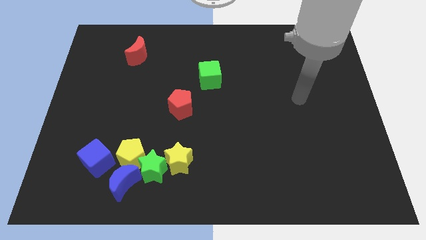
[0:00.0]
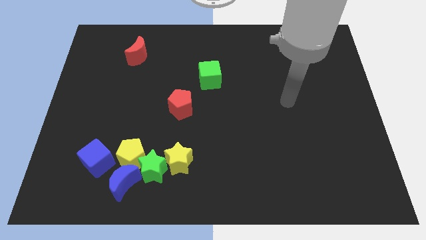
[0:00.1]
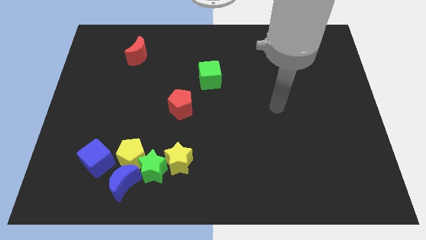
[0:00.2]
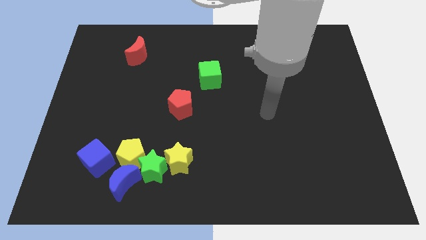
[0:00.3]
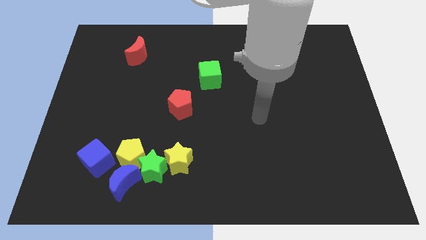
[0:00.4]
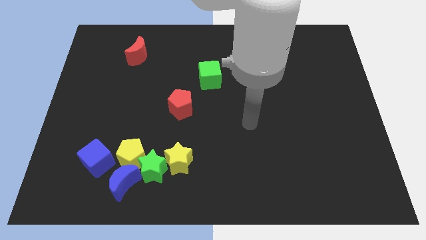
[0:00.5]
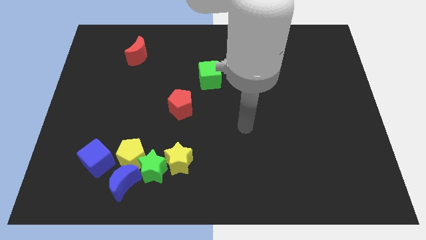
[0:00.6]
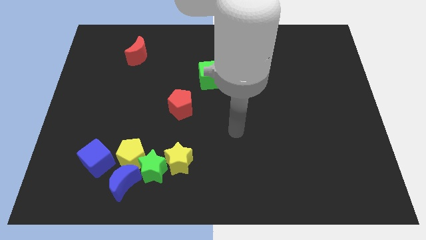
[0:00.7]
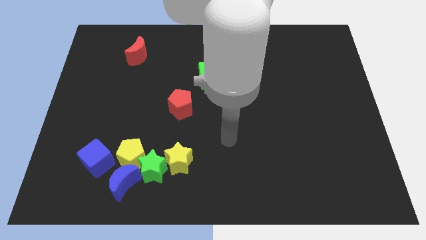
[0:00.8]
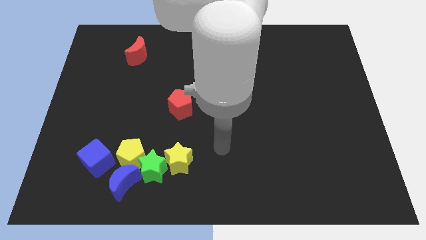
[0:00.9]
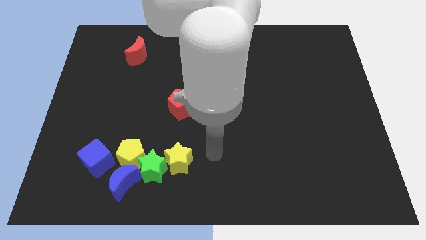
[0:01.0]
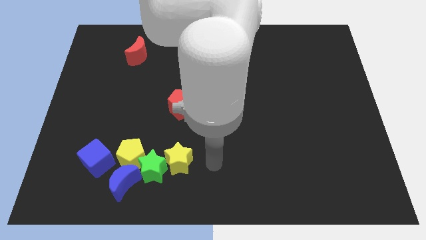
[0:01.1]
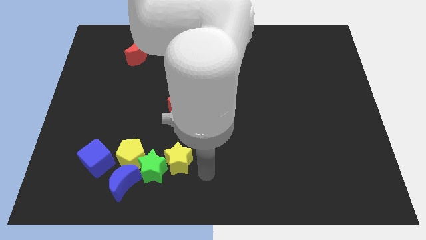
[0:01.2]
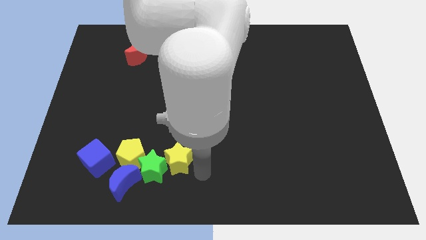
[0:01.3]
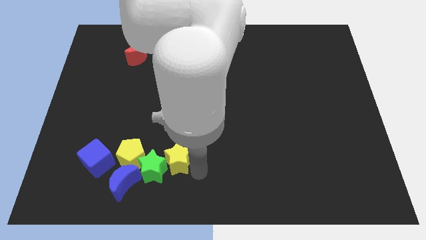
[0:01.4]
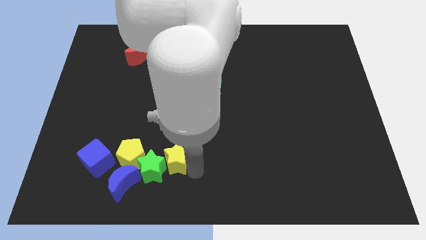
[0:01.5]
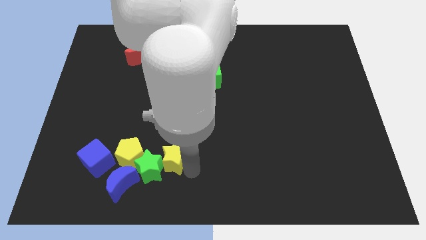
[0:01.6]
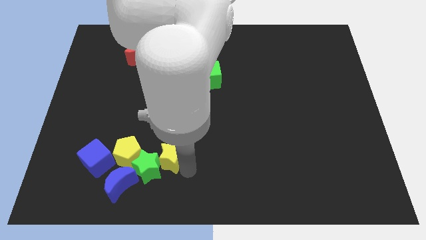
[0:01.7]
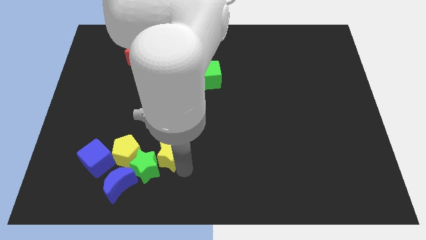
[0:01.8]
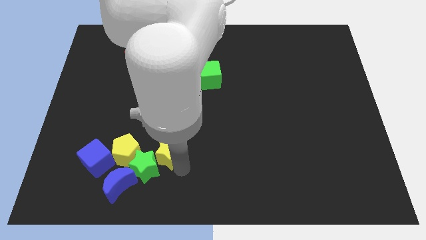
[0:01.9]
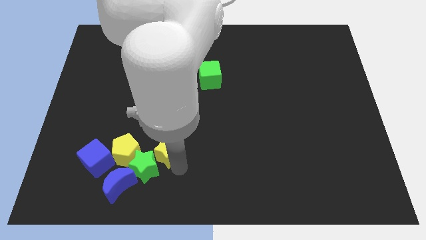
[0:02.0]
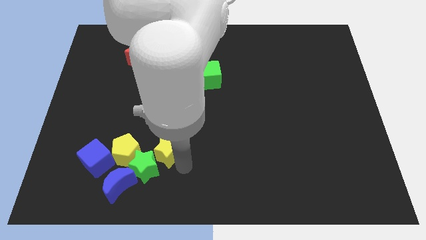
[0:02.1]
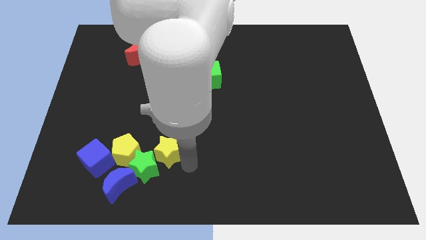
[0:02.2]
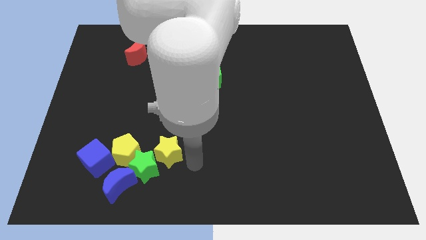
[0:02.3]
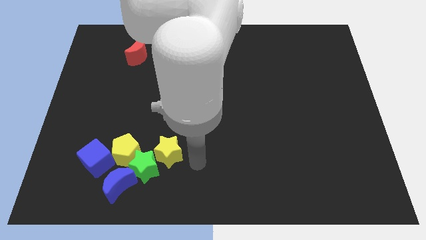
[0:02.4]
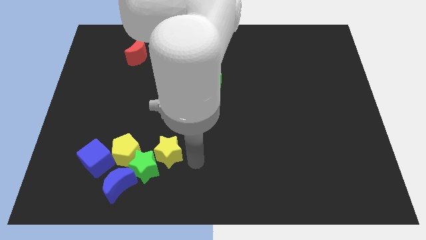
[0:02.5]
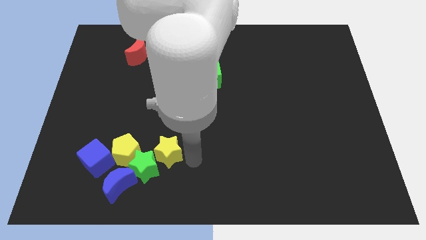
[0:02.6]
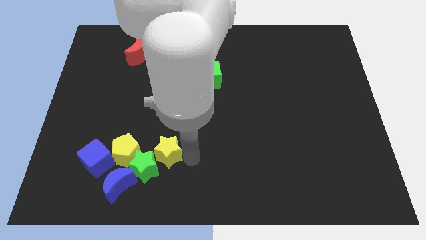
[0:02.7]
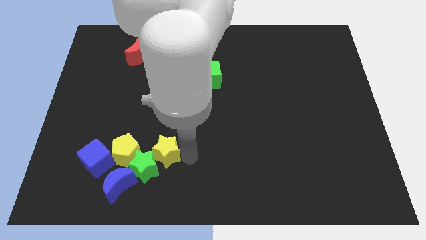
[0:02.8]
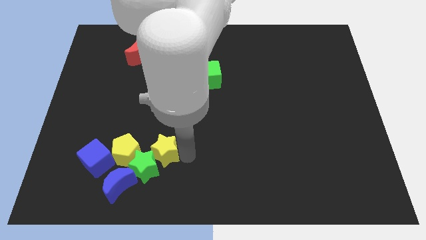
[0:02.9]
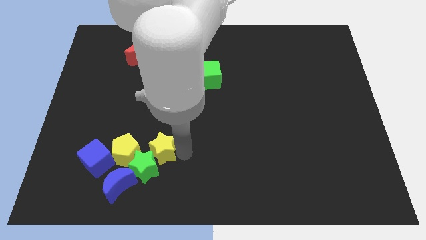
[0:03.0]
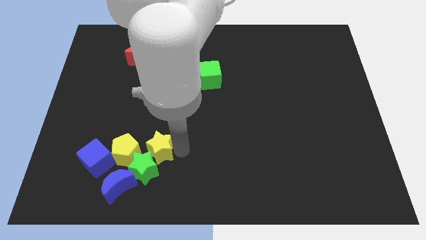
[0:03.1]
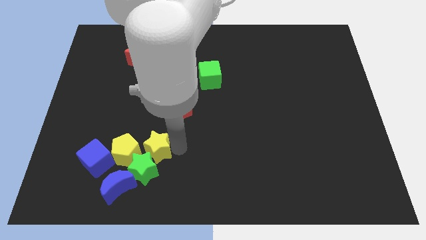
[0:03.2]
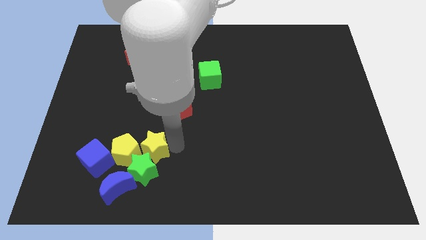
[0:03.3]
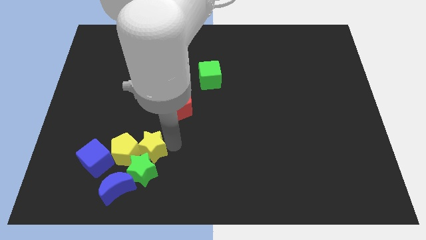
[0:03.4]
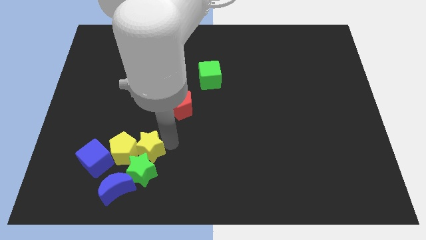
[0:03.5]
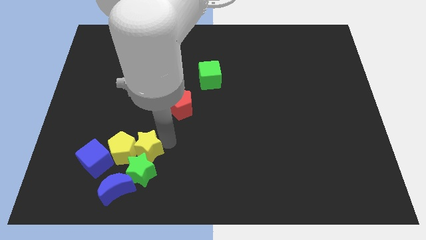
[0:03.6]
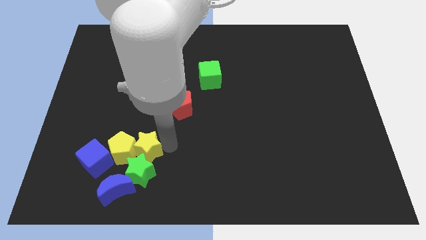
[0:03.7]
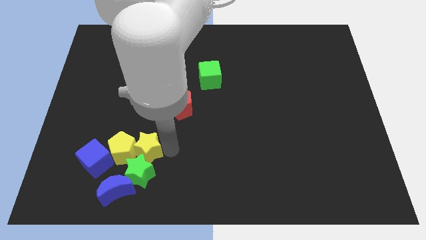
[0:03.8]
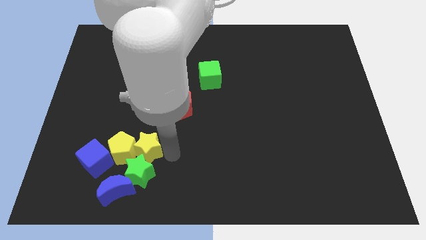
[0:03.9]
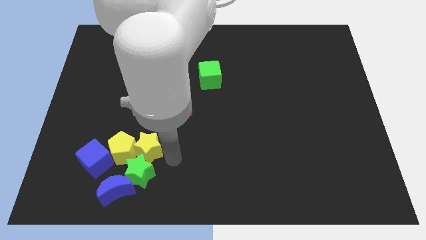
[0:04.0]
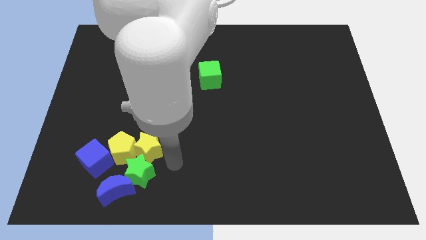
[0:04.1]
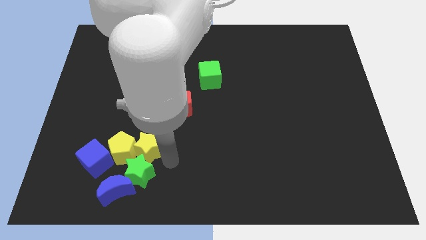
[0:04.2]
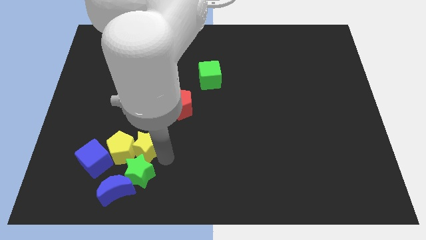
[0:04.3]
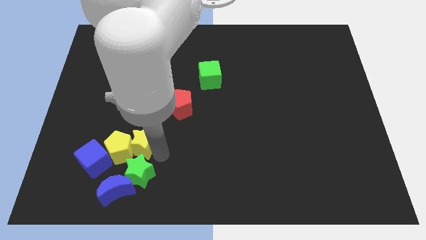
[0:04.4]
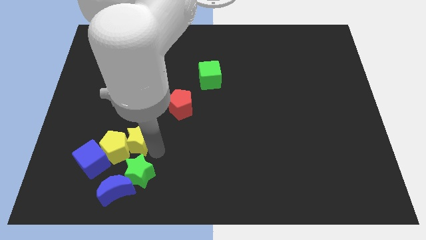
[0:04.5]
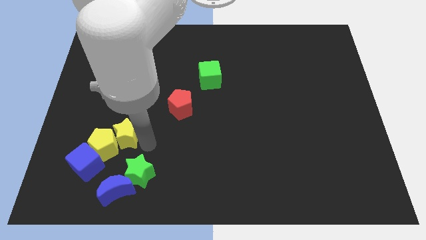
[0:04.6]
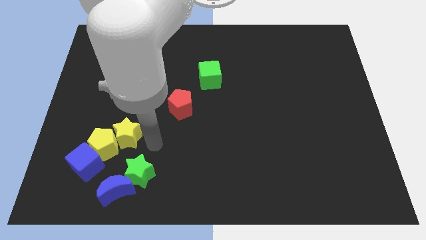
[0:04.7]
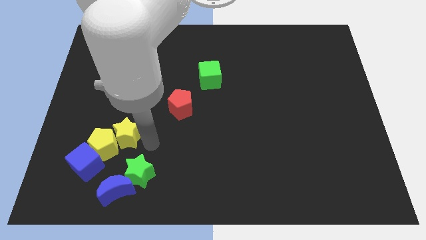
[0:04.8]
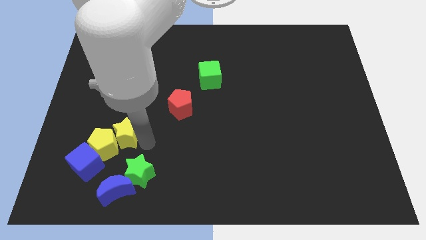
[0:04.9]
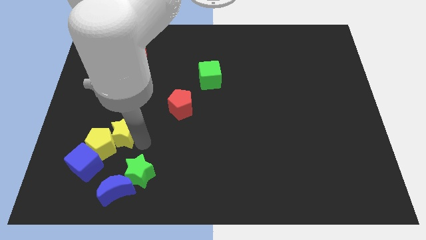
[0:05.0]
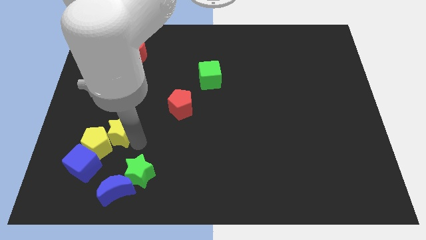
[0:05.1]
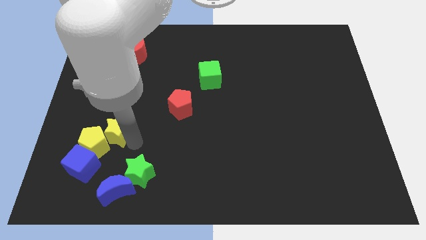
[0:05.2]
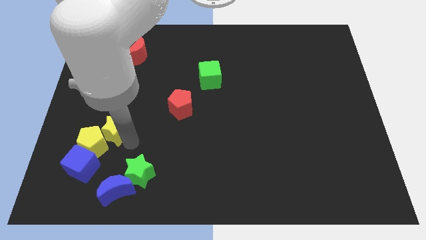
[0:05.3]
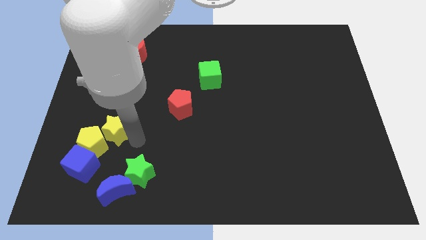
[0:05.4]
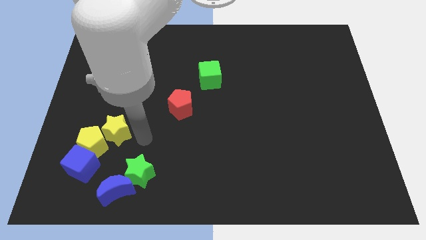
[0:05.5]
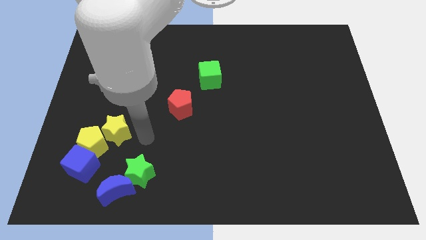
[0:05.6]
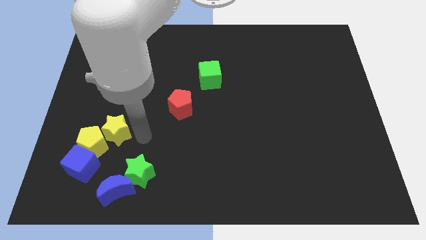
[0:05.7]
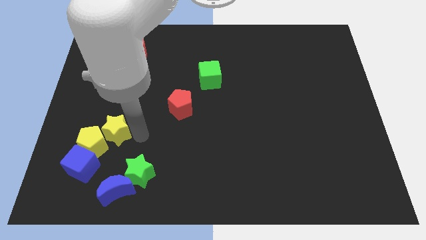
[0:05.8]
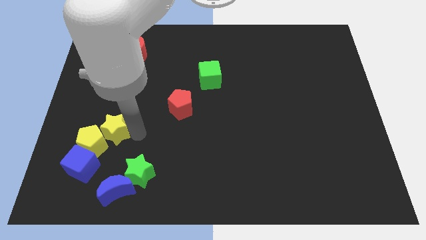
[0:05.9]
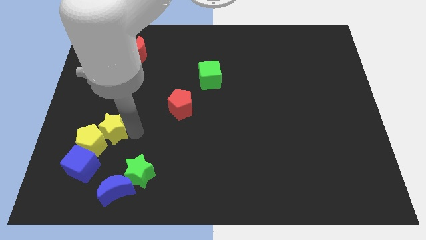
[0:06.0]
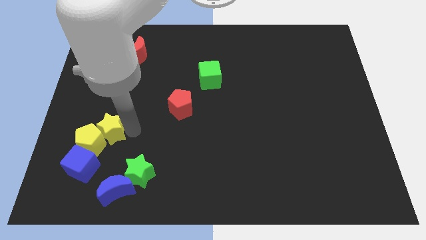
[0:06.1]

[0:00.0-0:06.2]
put the yellow star to the top of the blue cube
